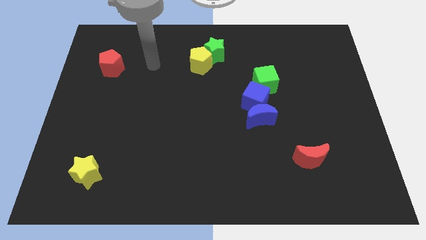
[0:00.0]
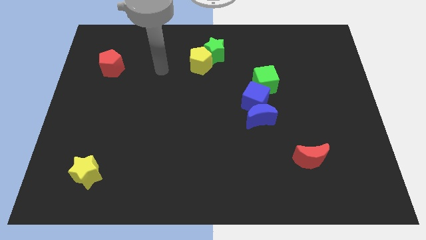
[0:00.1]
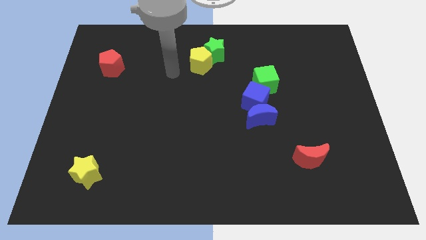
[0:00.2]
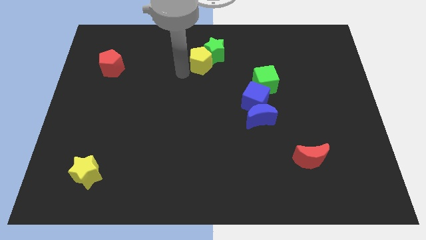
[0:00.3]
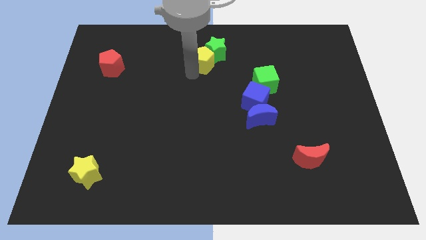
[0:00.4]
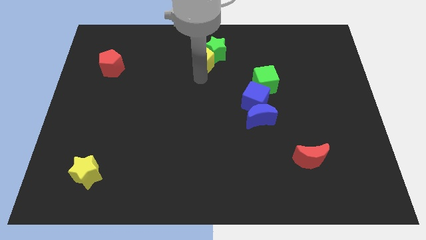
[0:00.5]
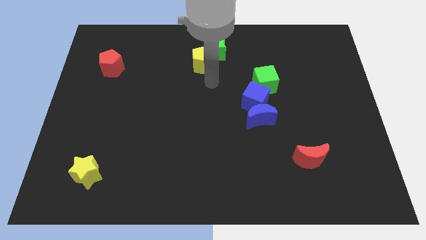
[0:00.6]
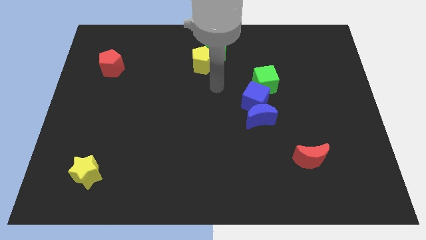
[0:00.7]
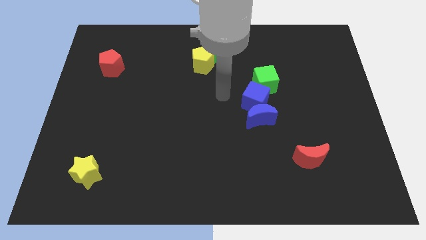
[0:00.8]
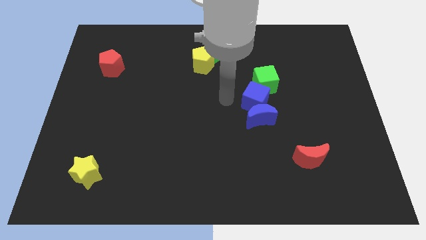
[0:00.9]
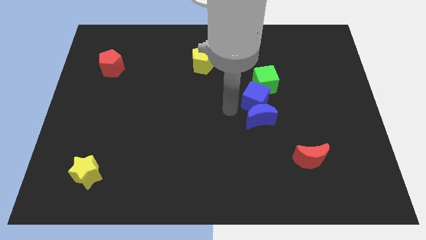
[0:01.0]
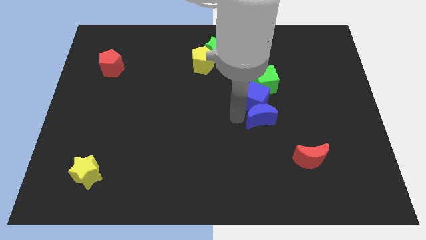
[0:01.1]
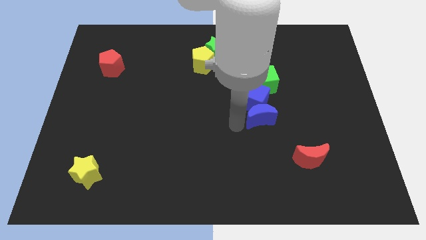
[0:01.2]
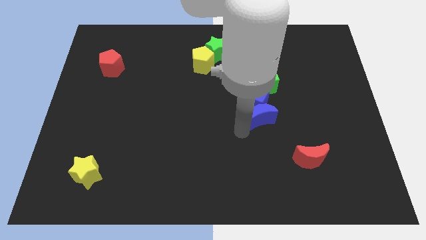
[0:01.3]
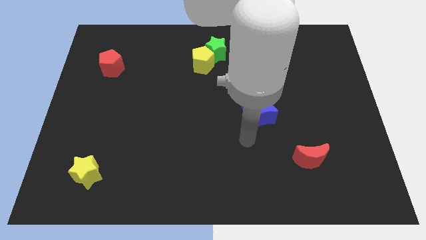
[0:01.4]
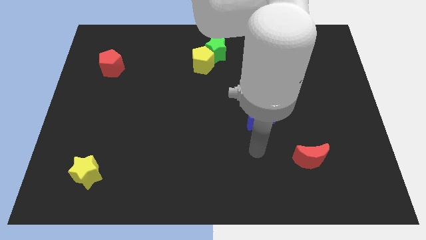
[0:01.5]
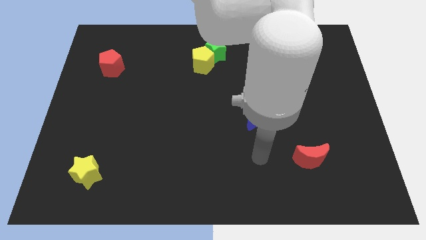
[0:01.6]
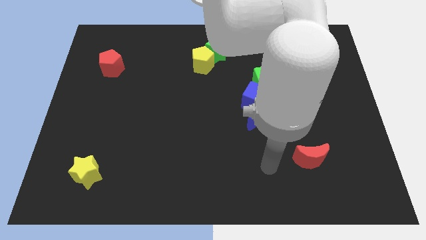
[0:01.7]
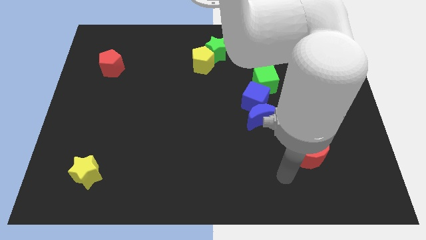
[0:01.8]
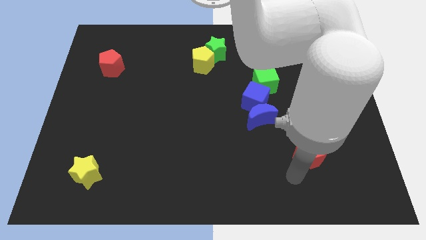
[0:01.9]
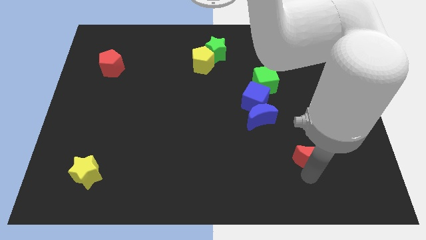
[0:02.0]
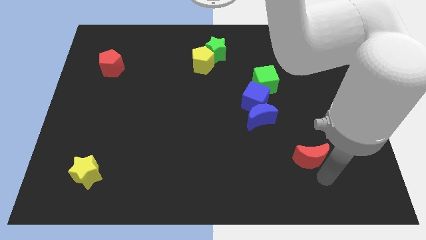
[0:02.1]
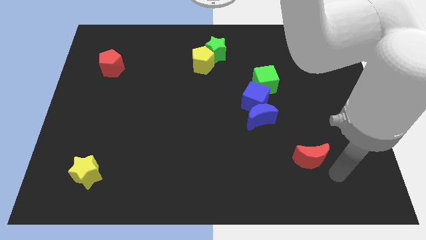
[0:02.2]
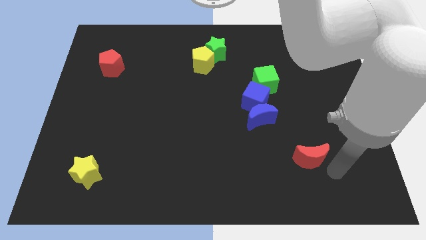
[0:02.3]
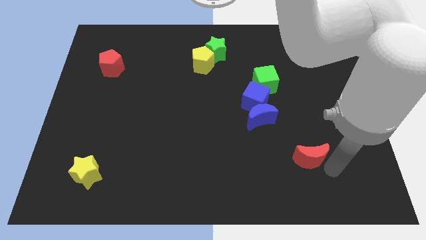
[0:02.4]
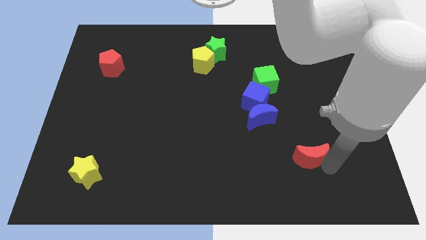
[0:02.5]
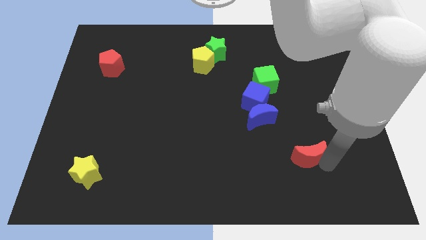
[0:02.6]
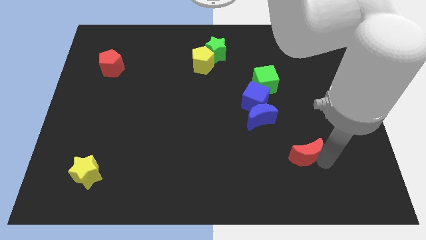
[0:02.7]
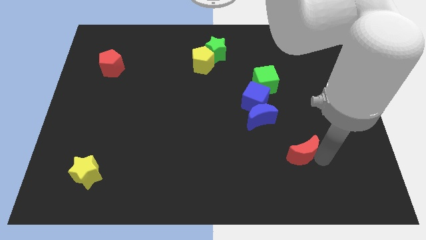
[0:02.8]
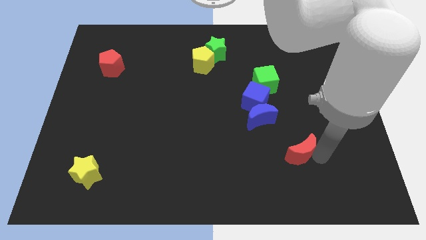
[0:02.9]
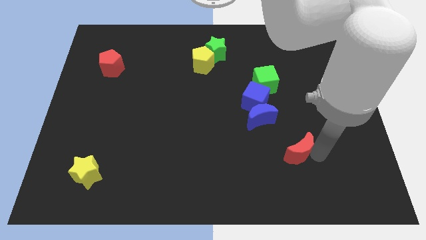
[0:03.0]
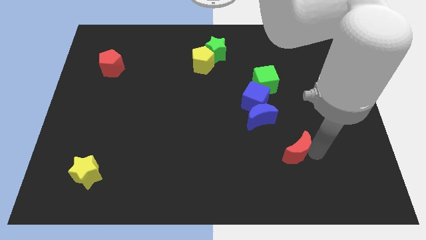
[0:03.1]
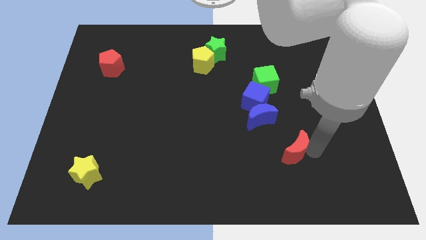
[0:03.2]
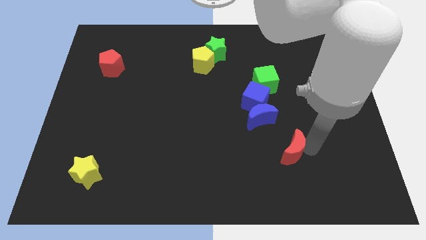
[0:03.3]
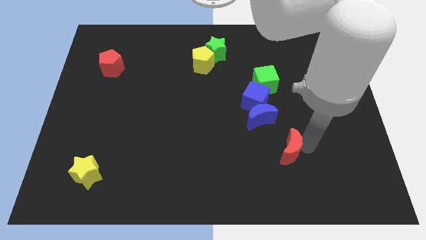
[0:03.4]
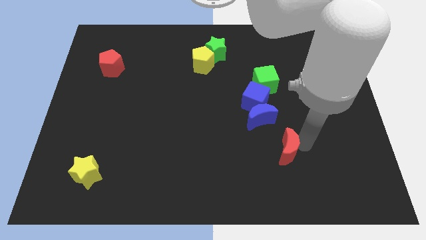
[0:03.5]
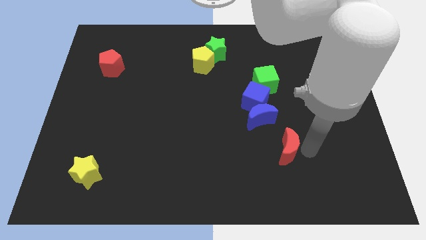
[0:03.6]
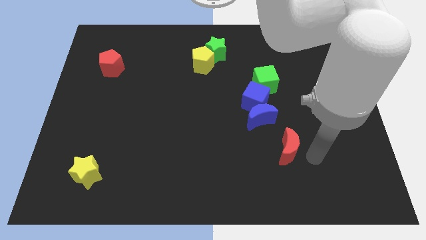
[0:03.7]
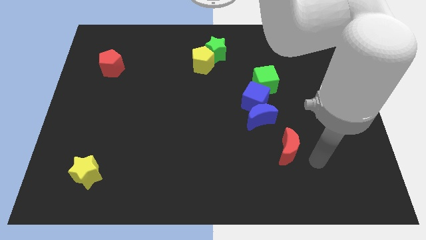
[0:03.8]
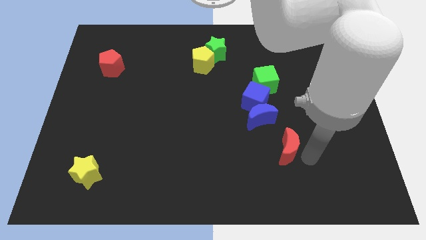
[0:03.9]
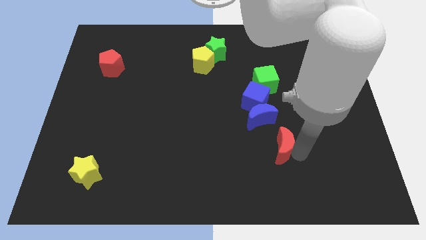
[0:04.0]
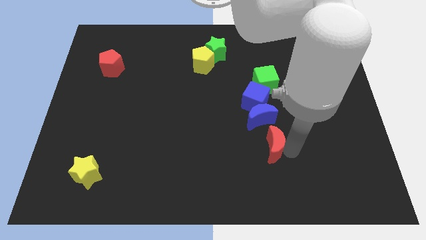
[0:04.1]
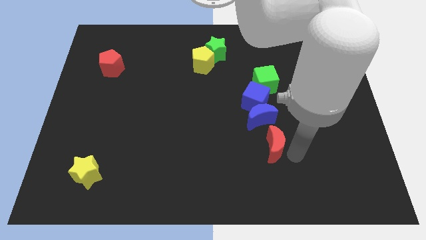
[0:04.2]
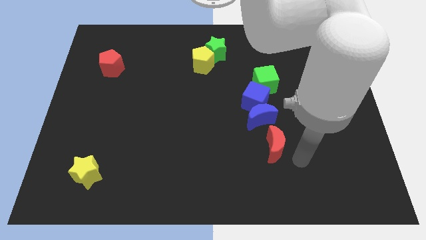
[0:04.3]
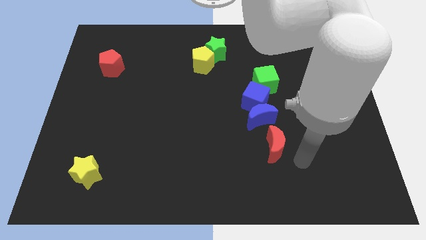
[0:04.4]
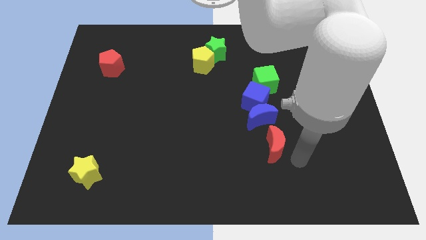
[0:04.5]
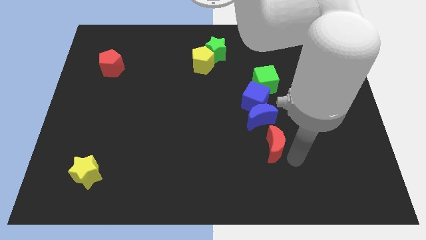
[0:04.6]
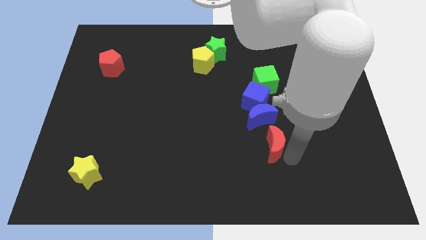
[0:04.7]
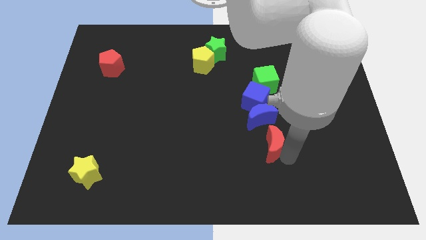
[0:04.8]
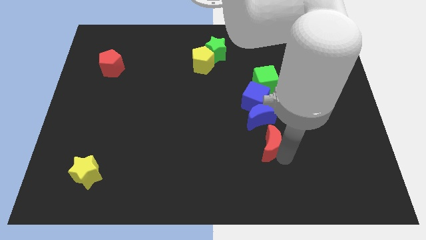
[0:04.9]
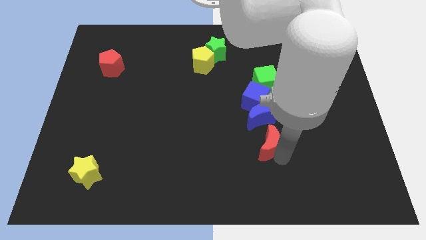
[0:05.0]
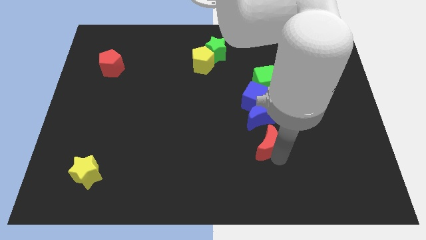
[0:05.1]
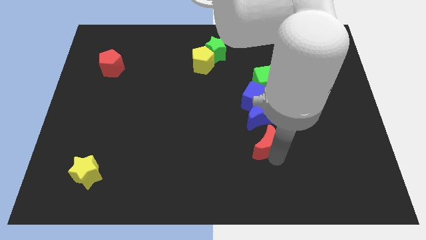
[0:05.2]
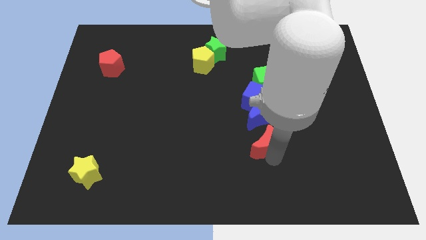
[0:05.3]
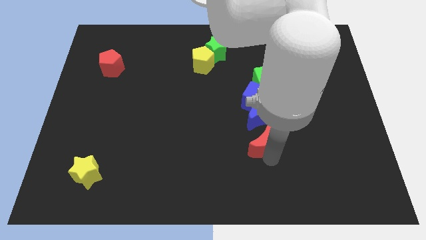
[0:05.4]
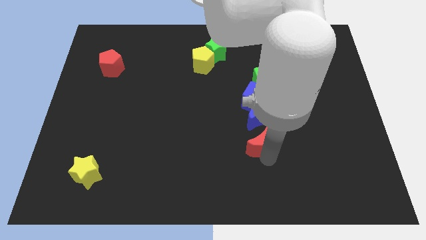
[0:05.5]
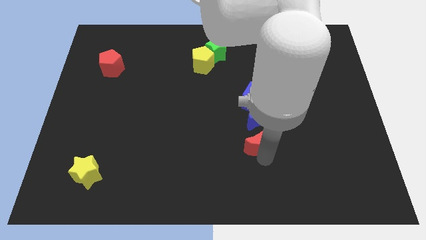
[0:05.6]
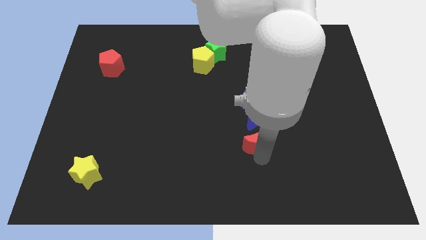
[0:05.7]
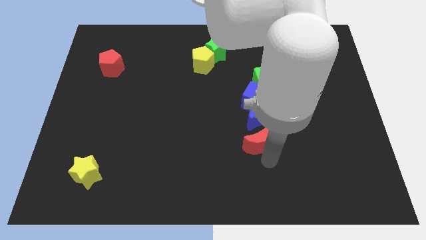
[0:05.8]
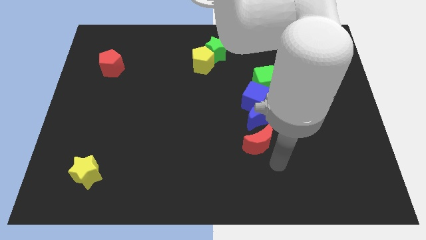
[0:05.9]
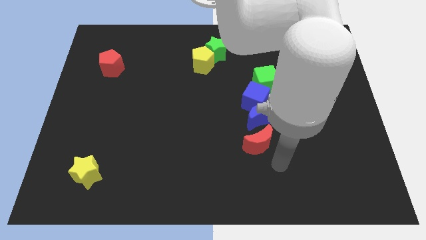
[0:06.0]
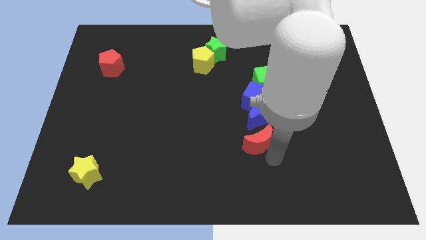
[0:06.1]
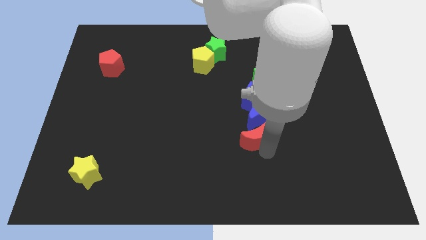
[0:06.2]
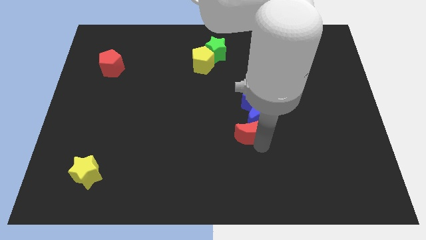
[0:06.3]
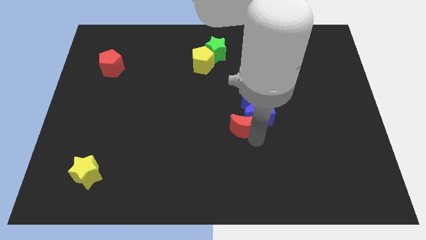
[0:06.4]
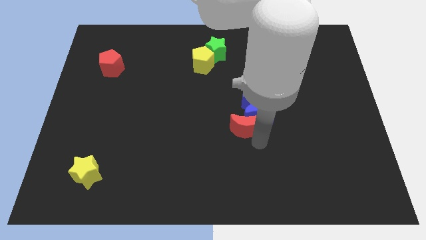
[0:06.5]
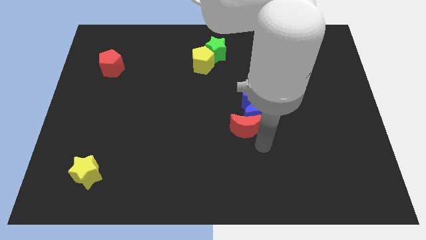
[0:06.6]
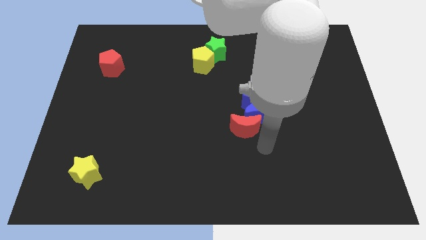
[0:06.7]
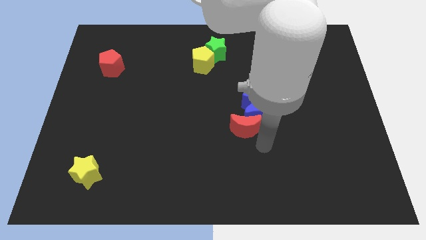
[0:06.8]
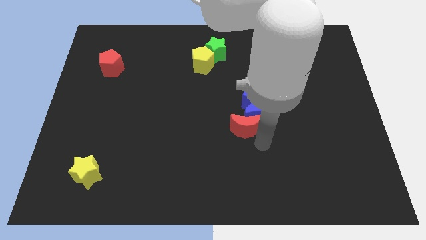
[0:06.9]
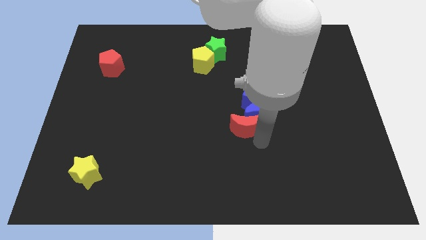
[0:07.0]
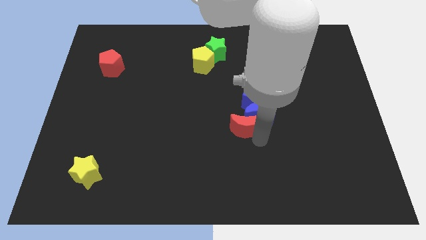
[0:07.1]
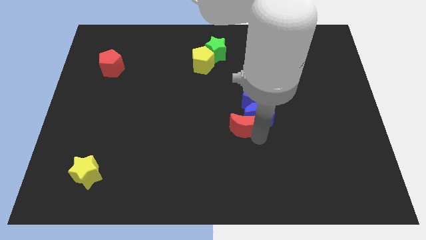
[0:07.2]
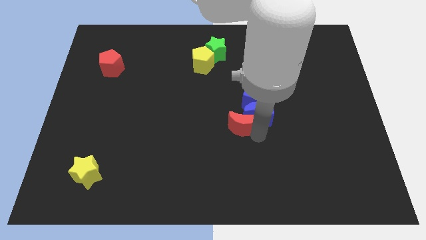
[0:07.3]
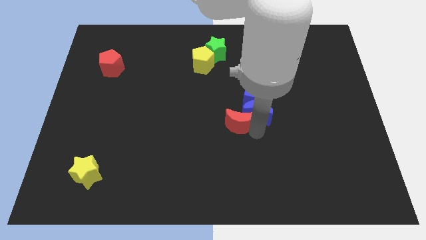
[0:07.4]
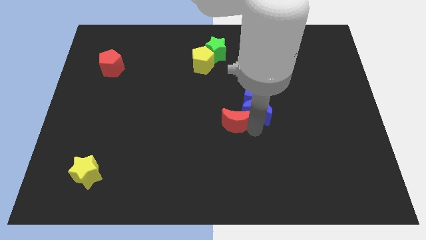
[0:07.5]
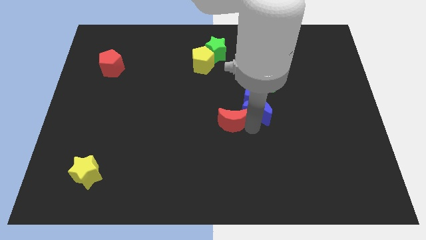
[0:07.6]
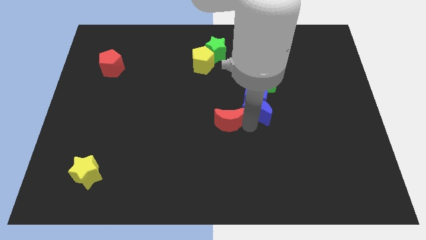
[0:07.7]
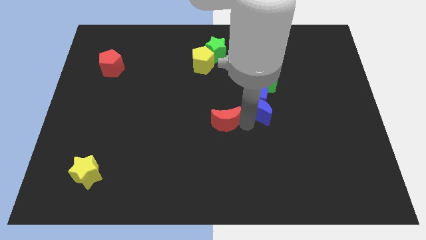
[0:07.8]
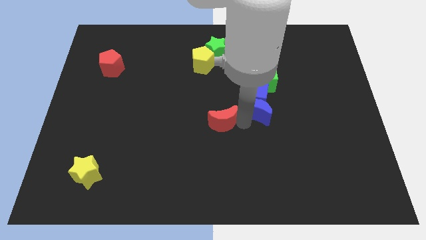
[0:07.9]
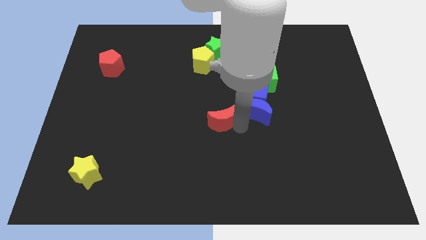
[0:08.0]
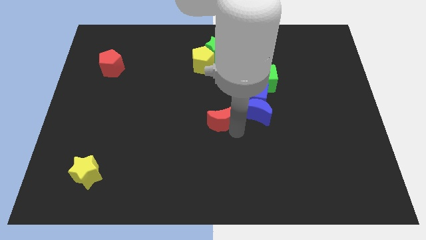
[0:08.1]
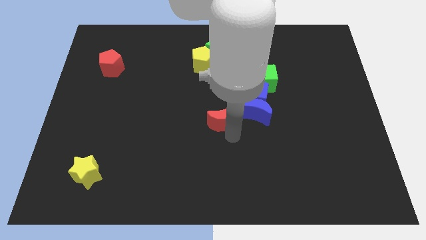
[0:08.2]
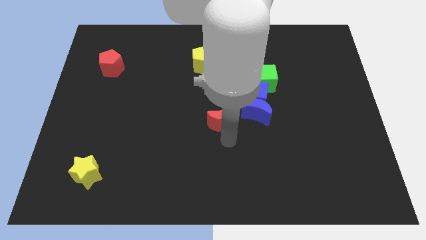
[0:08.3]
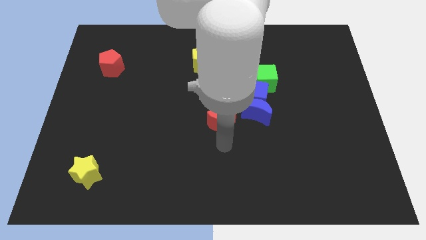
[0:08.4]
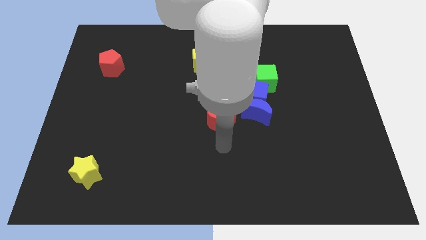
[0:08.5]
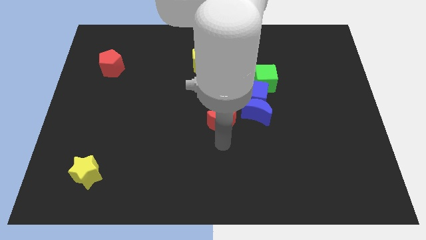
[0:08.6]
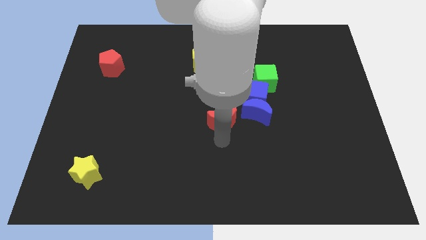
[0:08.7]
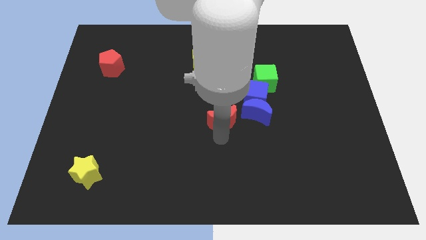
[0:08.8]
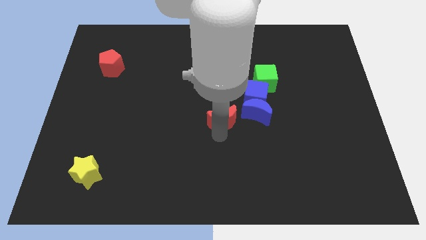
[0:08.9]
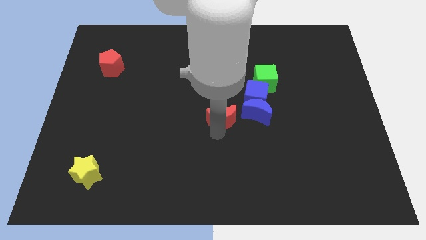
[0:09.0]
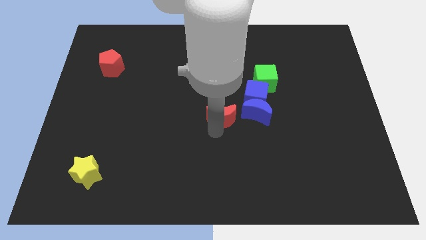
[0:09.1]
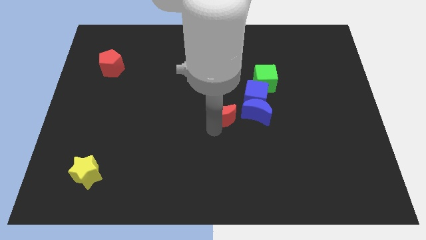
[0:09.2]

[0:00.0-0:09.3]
push the red moon diagonally up and to the left
